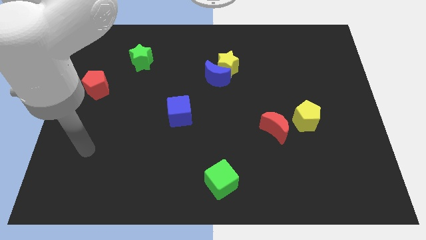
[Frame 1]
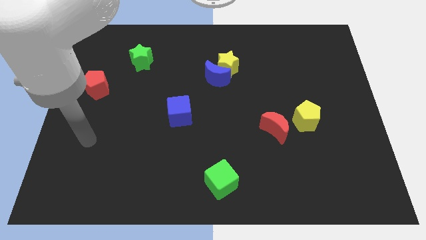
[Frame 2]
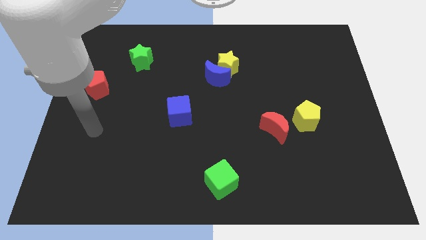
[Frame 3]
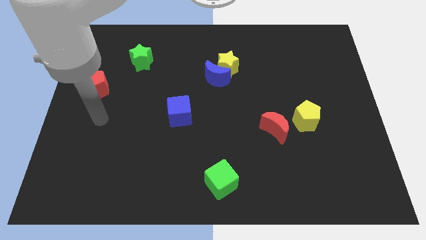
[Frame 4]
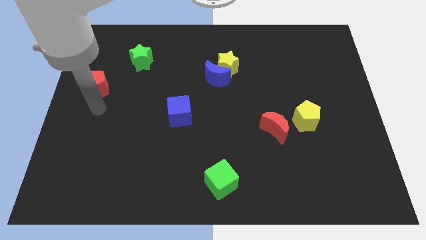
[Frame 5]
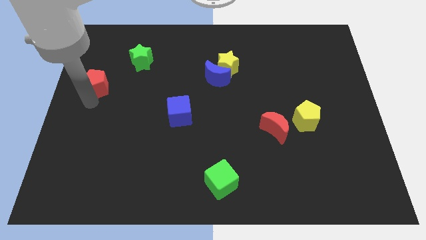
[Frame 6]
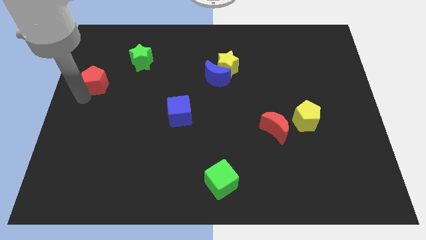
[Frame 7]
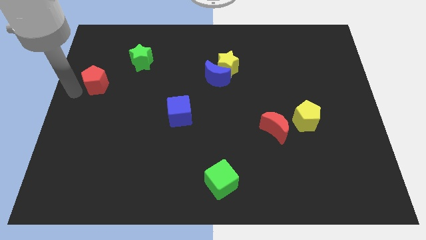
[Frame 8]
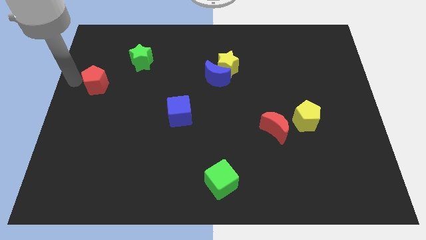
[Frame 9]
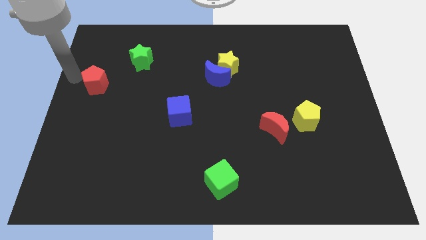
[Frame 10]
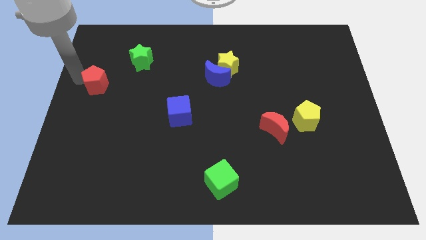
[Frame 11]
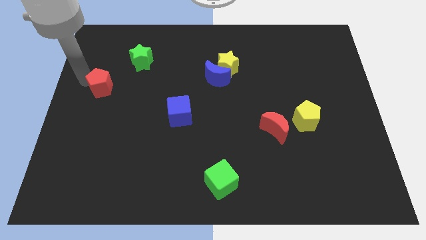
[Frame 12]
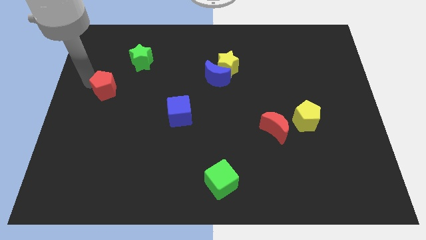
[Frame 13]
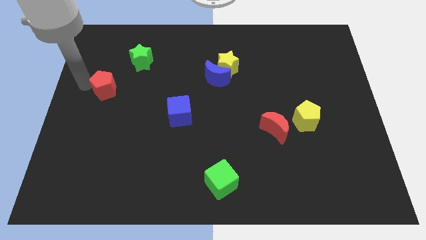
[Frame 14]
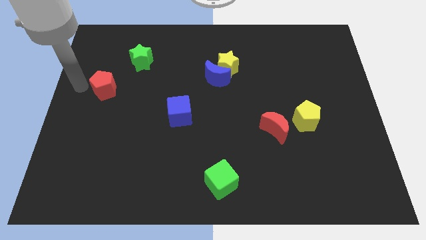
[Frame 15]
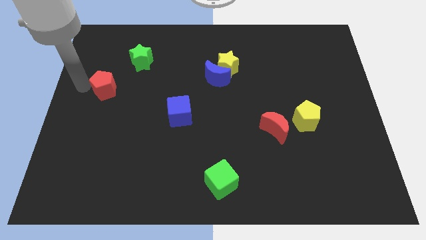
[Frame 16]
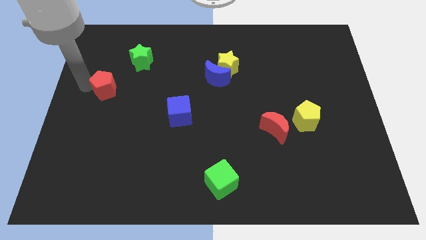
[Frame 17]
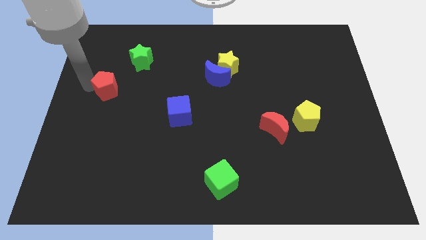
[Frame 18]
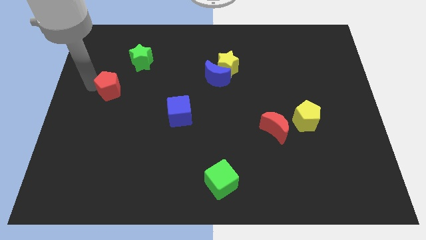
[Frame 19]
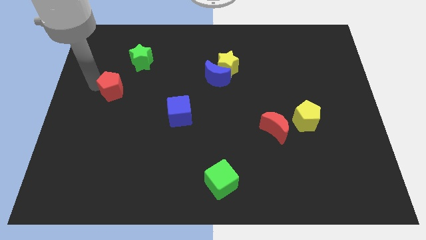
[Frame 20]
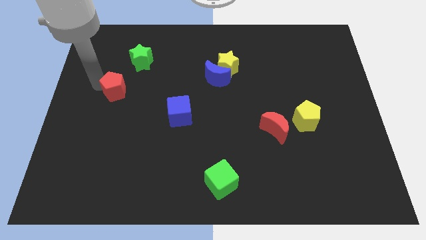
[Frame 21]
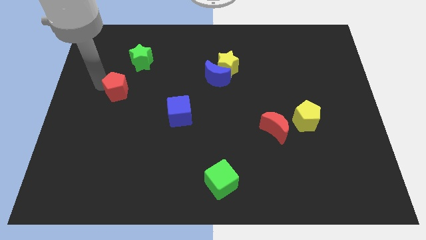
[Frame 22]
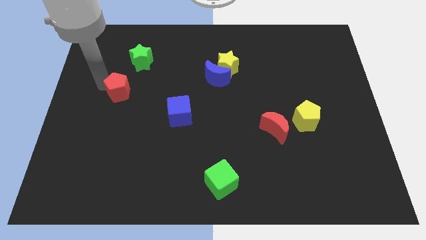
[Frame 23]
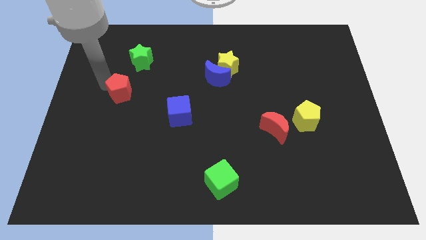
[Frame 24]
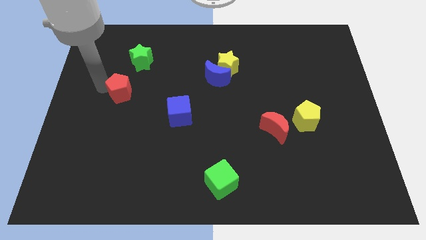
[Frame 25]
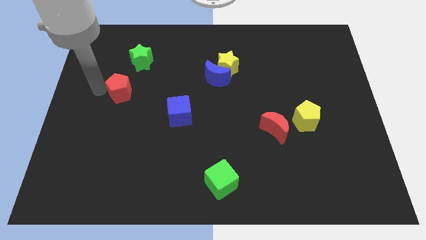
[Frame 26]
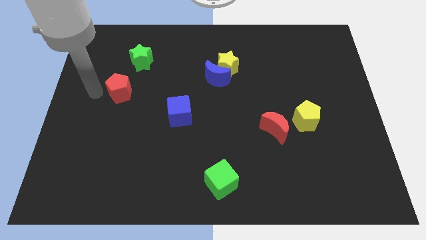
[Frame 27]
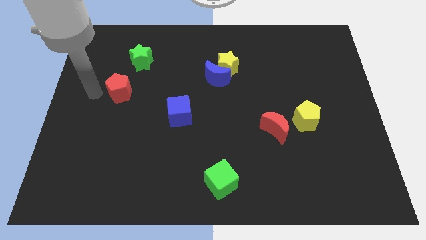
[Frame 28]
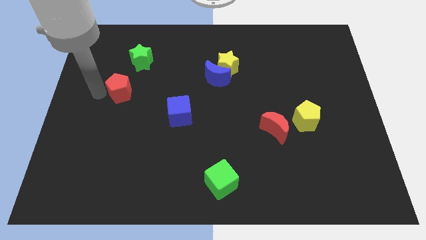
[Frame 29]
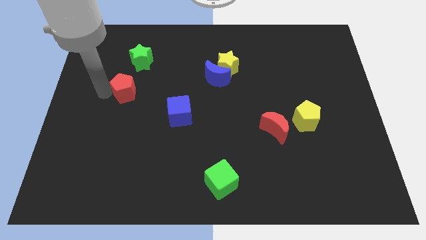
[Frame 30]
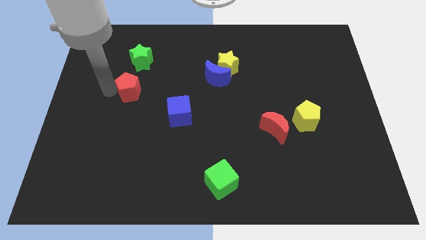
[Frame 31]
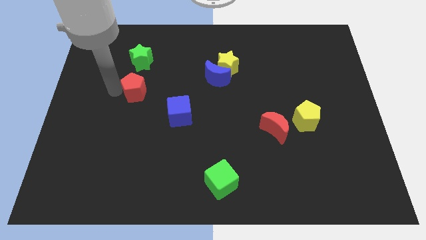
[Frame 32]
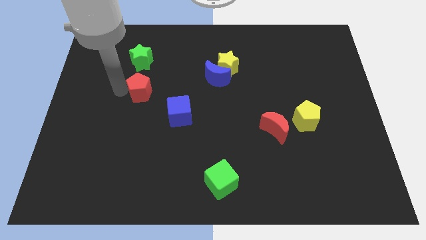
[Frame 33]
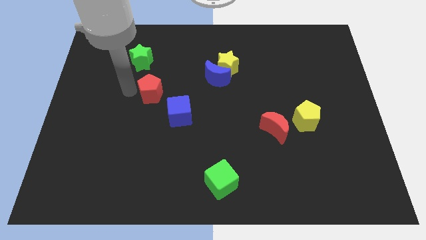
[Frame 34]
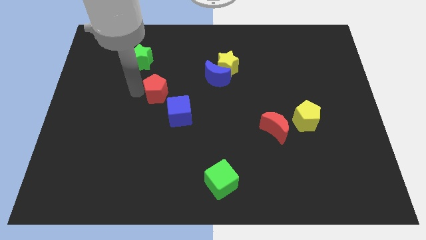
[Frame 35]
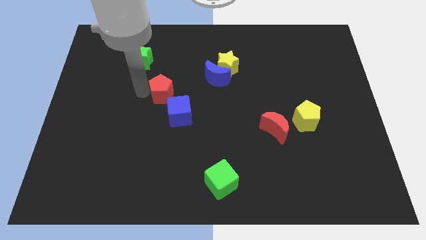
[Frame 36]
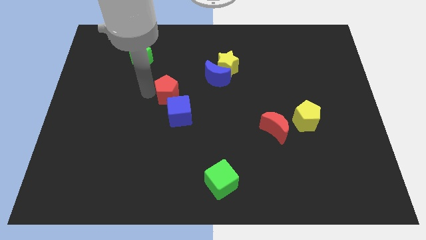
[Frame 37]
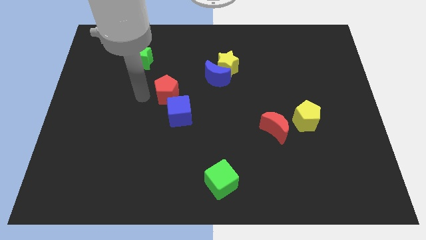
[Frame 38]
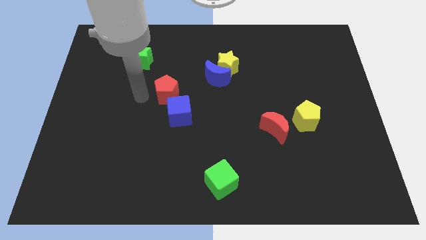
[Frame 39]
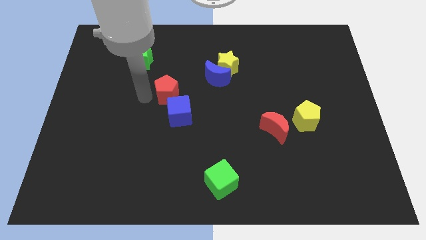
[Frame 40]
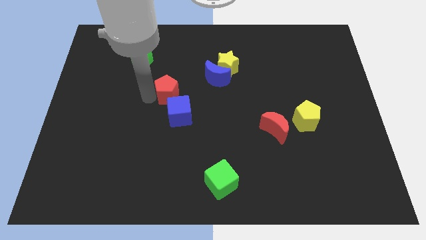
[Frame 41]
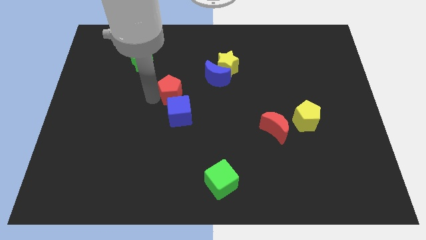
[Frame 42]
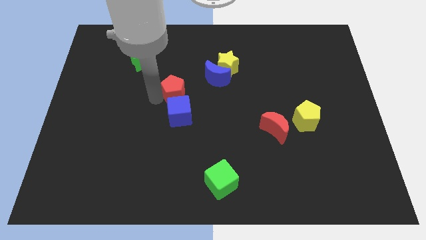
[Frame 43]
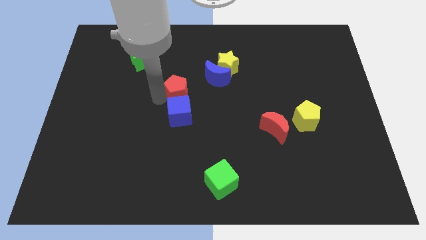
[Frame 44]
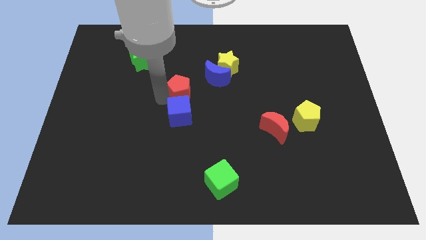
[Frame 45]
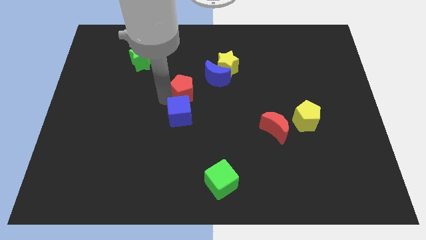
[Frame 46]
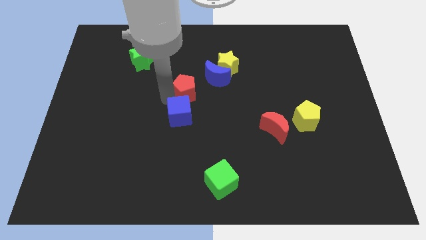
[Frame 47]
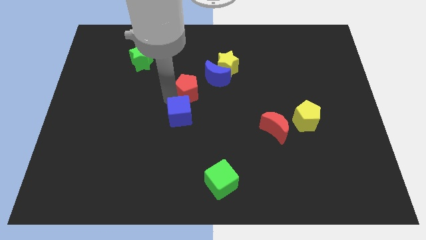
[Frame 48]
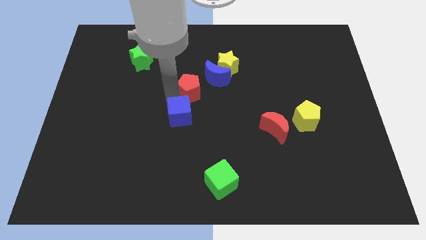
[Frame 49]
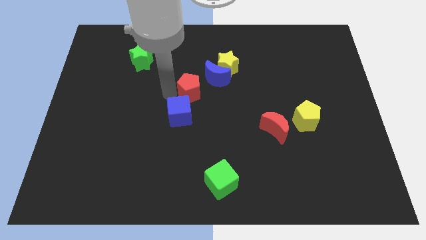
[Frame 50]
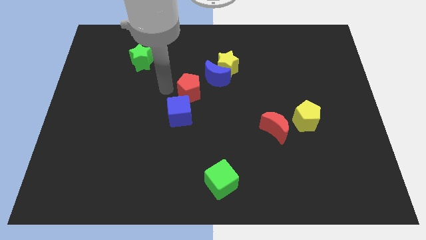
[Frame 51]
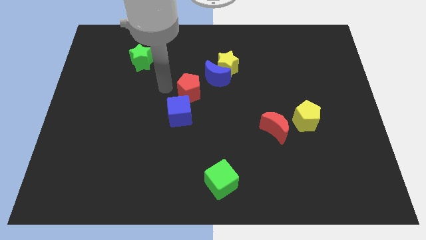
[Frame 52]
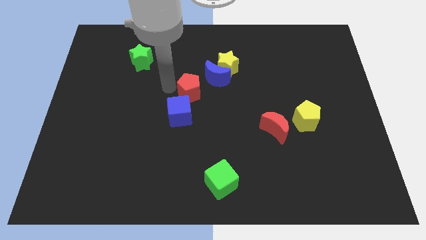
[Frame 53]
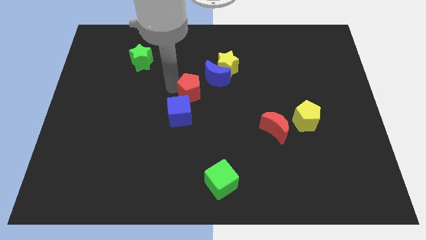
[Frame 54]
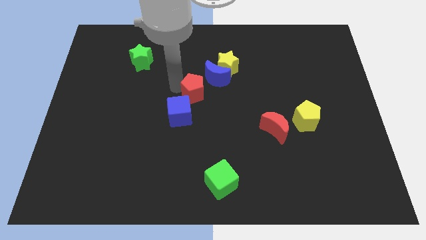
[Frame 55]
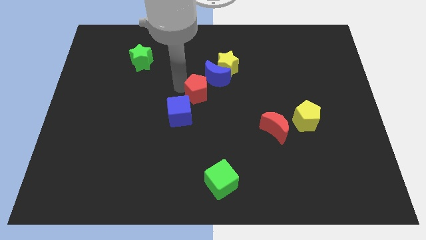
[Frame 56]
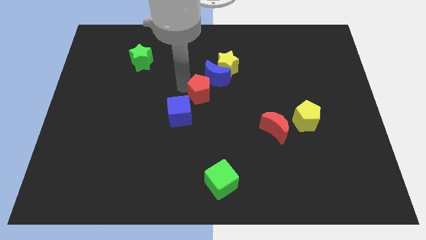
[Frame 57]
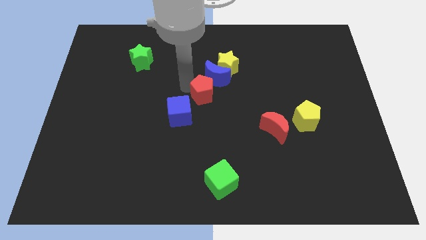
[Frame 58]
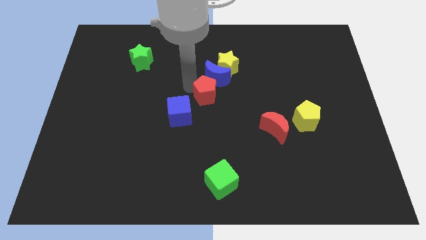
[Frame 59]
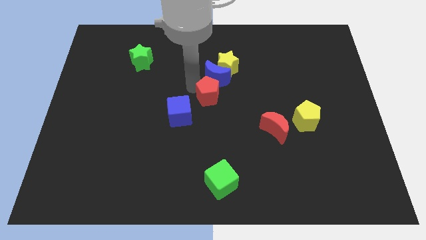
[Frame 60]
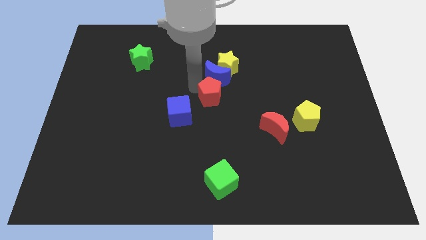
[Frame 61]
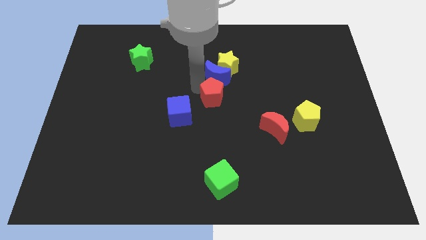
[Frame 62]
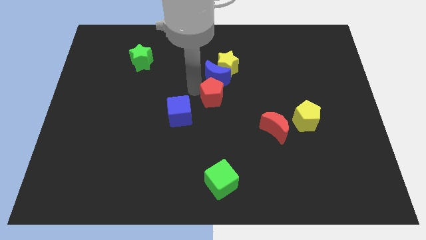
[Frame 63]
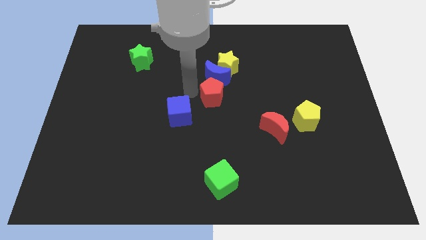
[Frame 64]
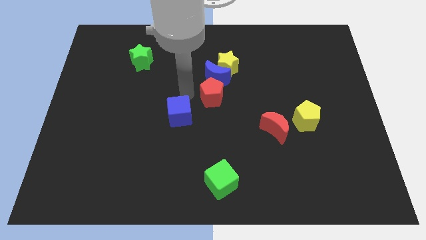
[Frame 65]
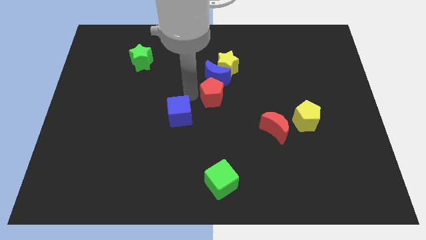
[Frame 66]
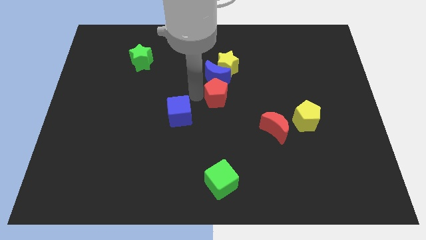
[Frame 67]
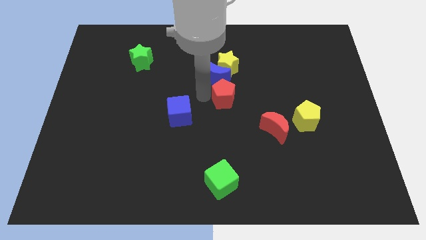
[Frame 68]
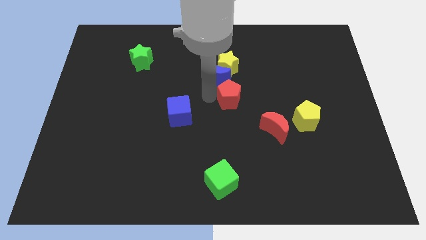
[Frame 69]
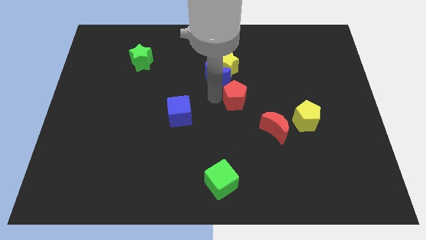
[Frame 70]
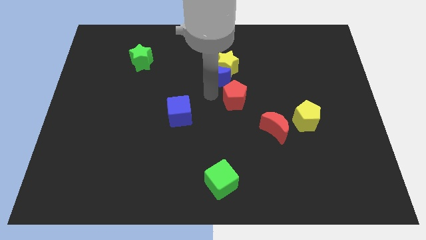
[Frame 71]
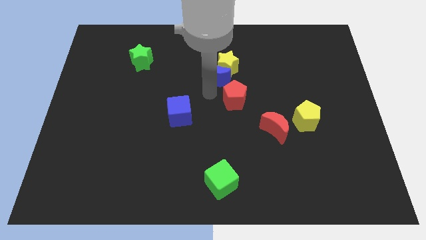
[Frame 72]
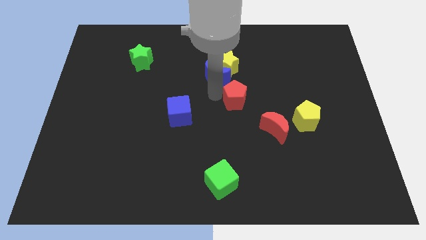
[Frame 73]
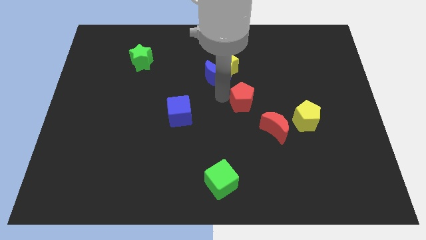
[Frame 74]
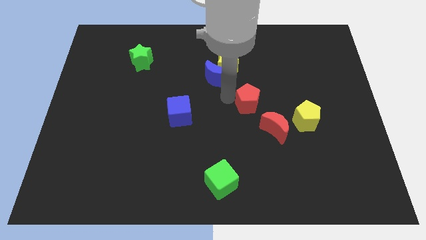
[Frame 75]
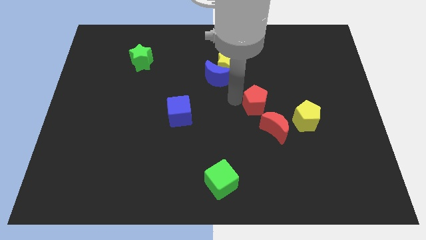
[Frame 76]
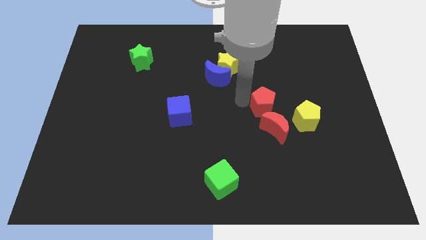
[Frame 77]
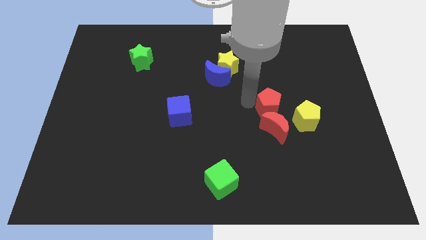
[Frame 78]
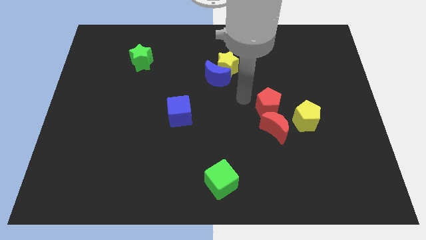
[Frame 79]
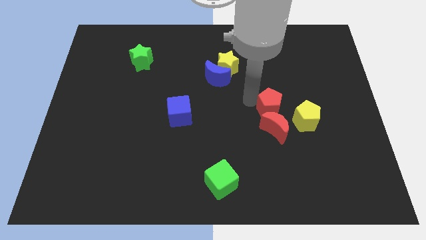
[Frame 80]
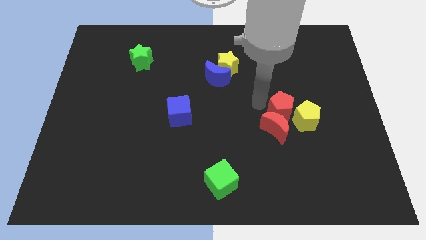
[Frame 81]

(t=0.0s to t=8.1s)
slide the red pentagon close to the yellow pentagon
